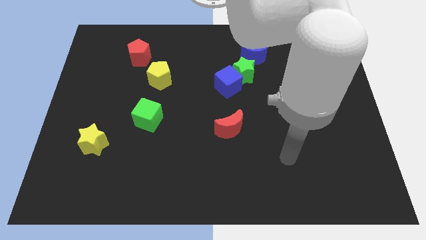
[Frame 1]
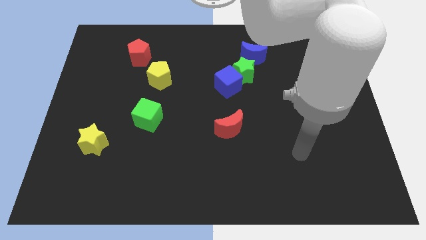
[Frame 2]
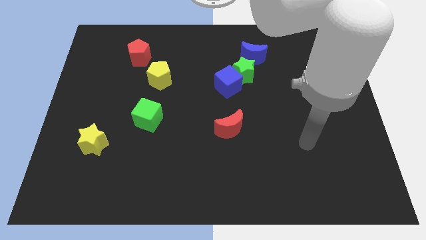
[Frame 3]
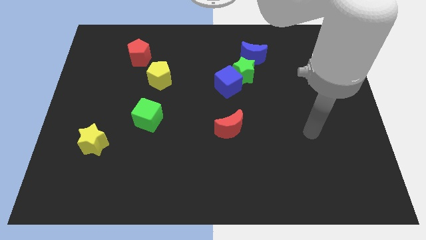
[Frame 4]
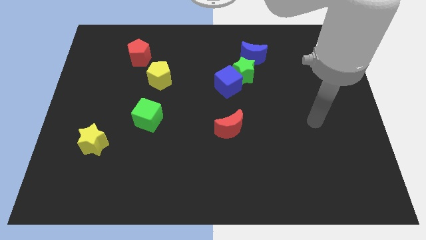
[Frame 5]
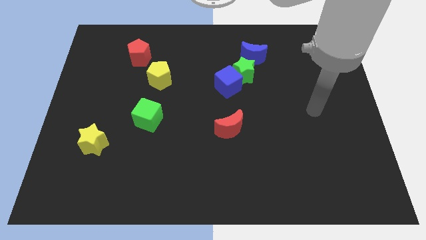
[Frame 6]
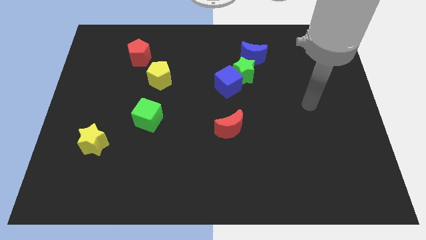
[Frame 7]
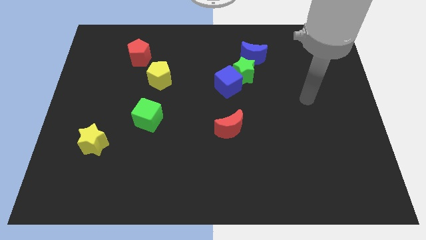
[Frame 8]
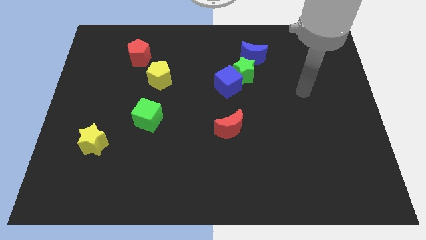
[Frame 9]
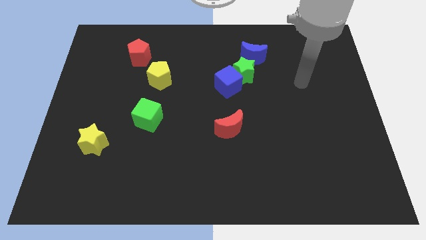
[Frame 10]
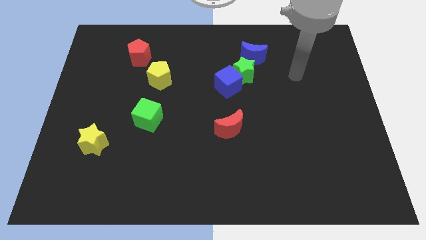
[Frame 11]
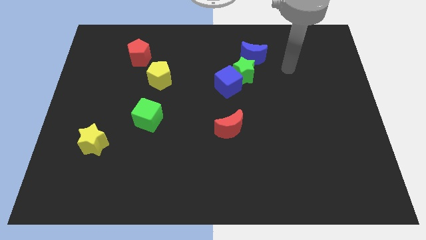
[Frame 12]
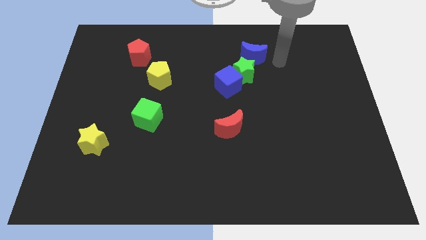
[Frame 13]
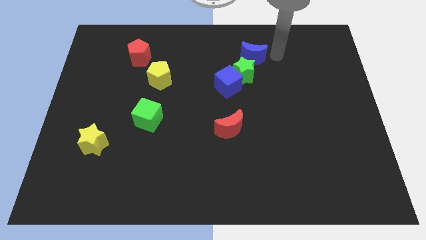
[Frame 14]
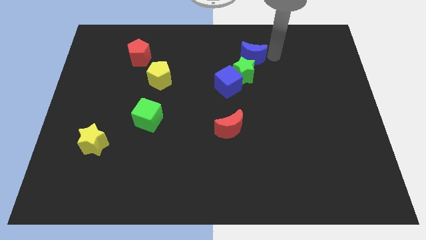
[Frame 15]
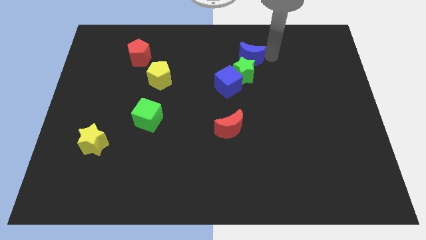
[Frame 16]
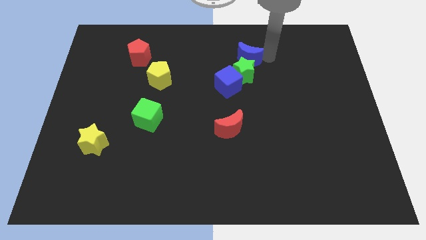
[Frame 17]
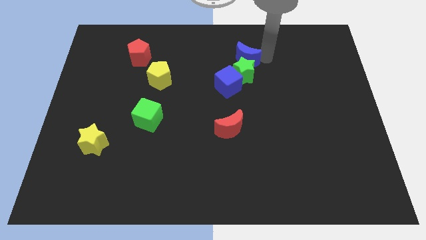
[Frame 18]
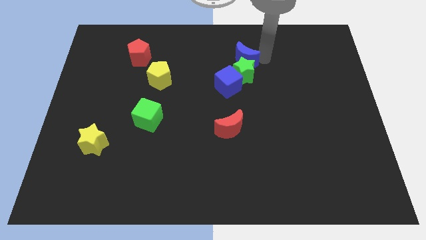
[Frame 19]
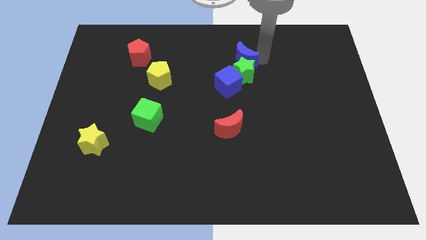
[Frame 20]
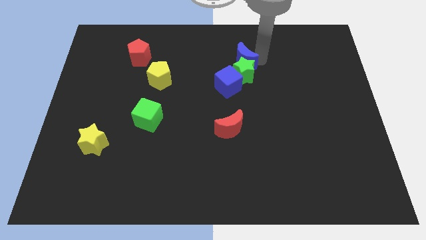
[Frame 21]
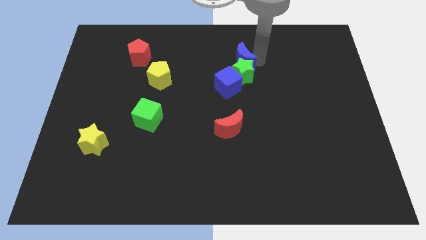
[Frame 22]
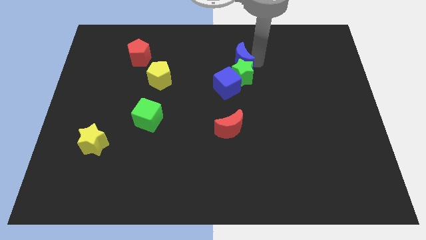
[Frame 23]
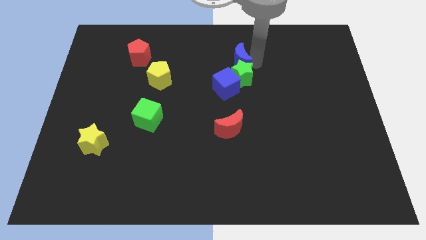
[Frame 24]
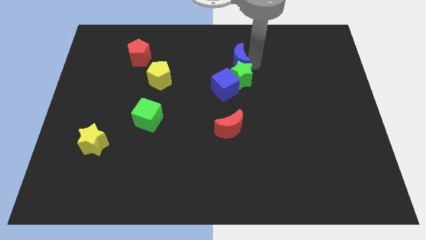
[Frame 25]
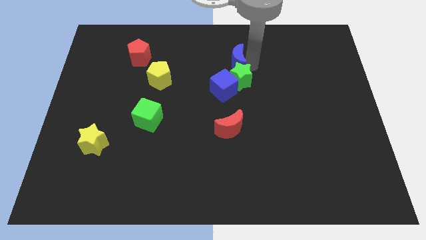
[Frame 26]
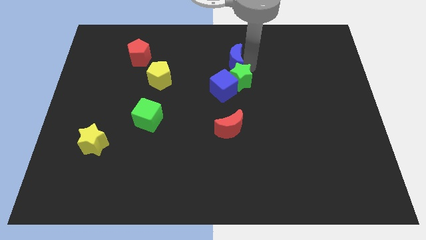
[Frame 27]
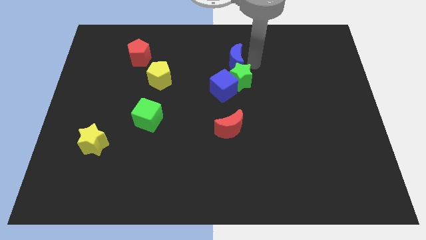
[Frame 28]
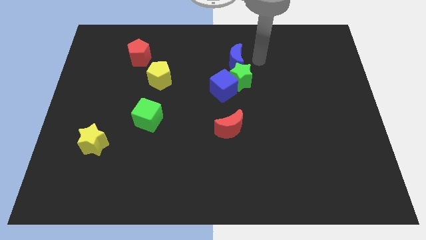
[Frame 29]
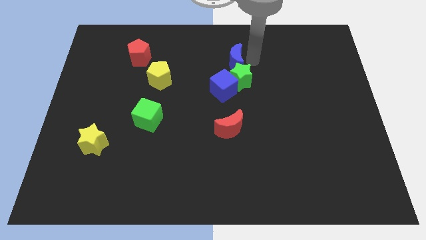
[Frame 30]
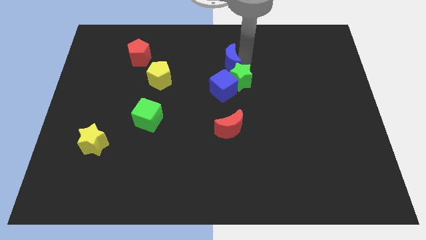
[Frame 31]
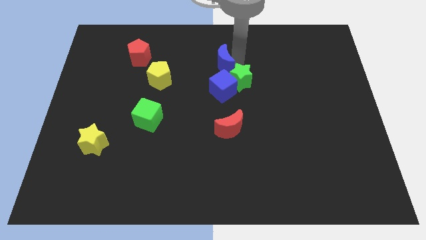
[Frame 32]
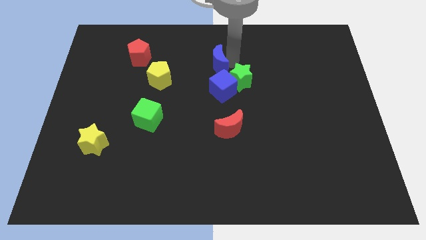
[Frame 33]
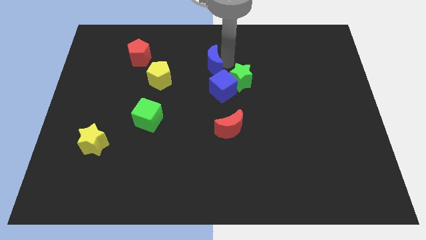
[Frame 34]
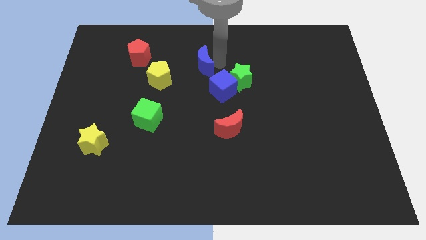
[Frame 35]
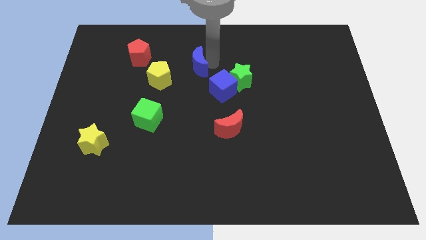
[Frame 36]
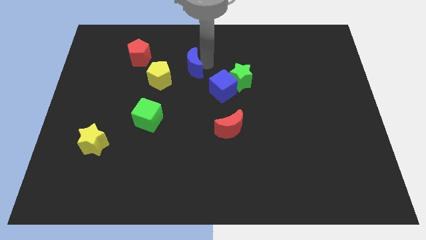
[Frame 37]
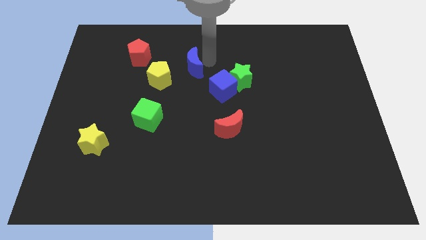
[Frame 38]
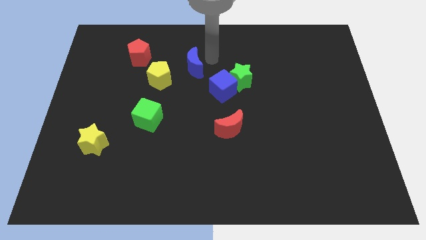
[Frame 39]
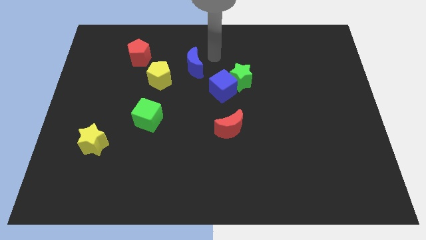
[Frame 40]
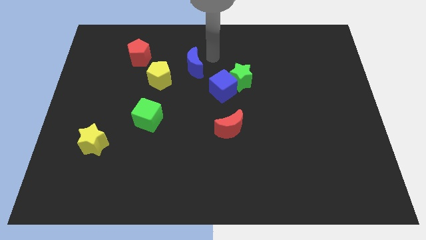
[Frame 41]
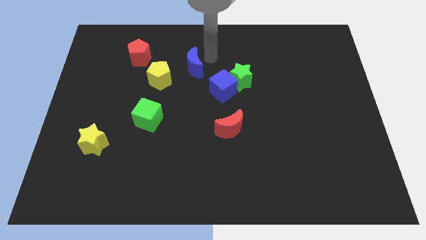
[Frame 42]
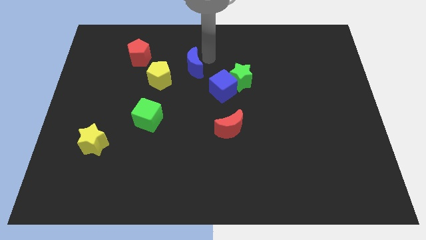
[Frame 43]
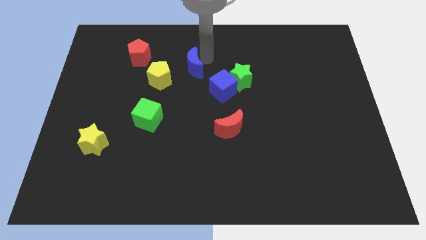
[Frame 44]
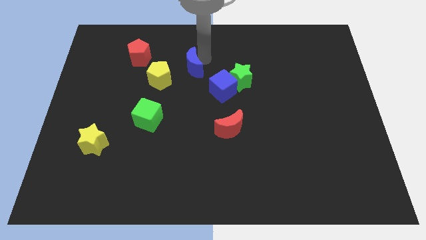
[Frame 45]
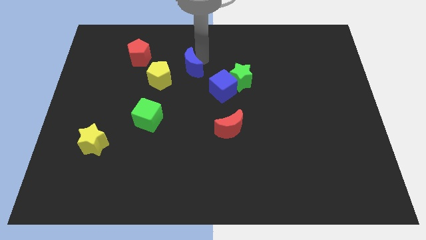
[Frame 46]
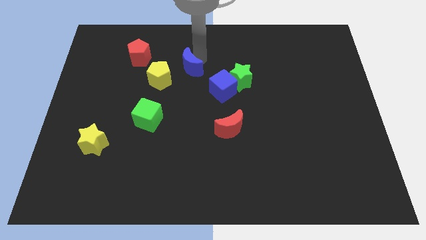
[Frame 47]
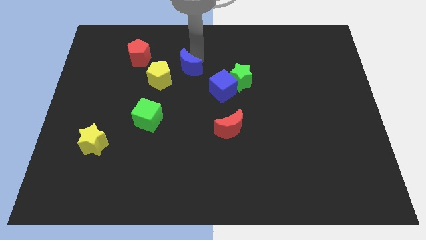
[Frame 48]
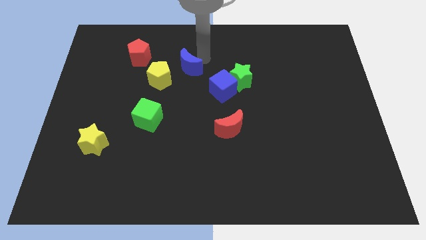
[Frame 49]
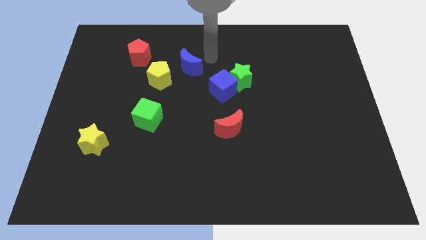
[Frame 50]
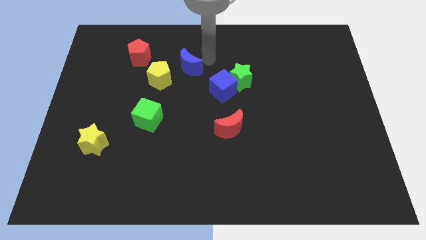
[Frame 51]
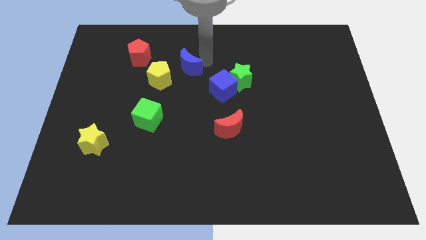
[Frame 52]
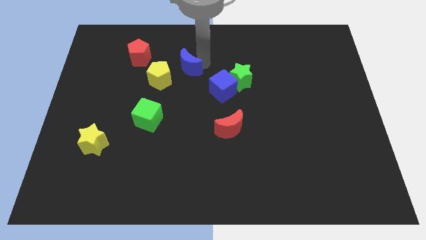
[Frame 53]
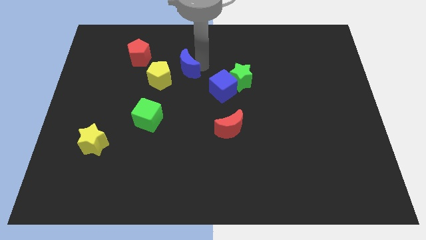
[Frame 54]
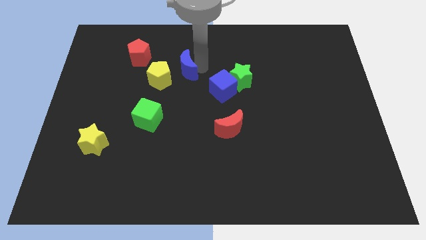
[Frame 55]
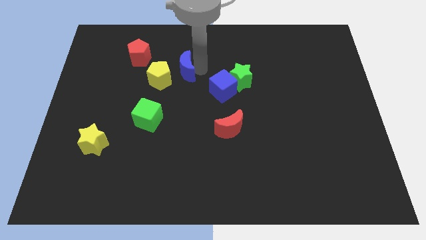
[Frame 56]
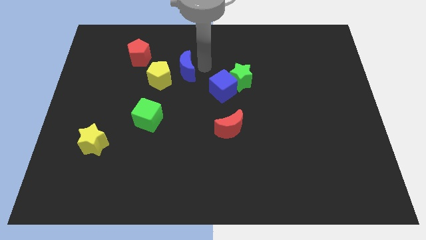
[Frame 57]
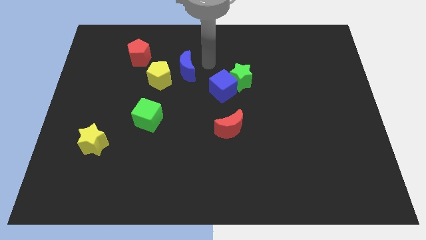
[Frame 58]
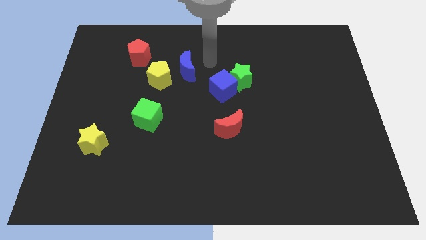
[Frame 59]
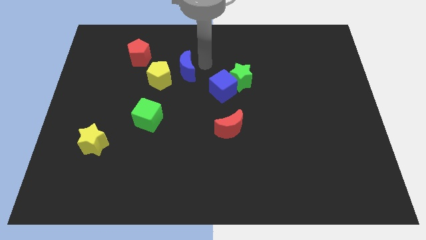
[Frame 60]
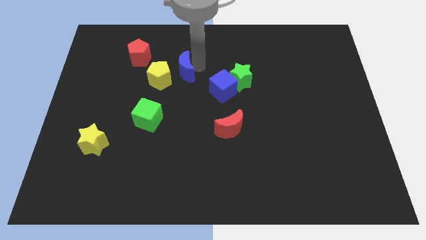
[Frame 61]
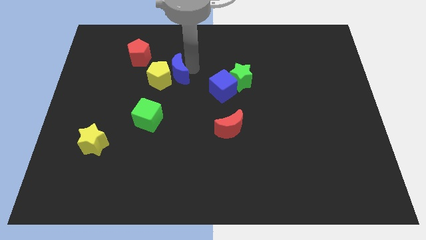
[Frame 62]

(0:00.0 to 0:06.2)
slide the blue moon towards the yellow pentagon
